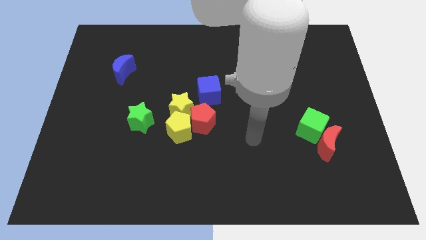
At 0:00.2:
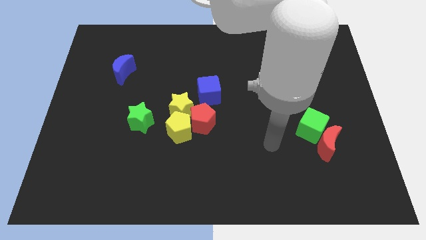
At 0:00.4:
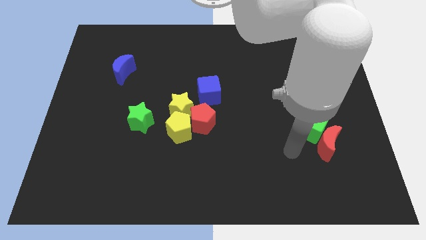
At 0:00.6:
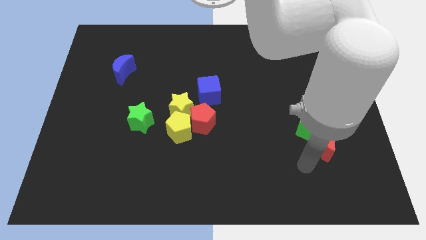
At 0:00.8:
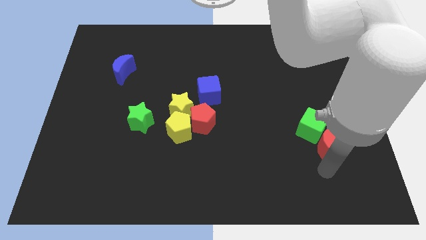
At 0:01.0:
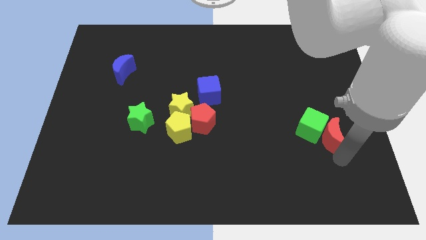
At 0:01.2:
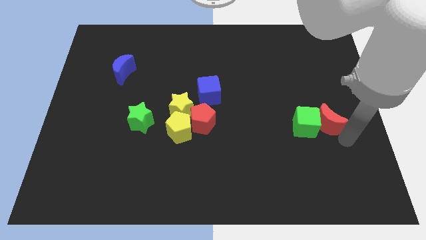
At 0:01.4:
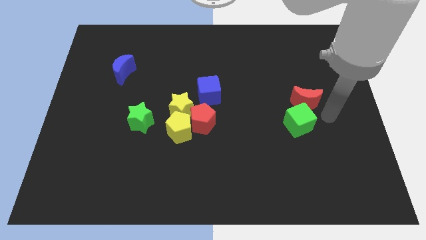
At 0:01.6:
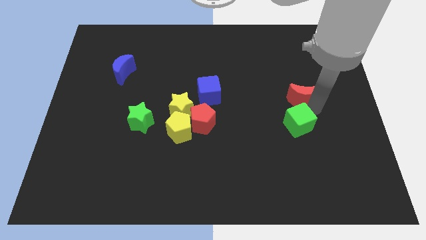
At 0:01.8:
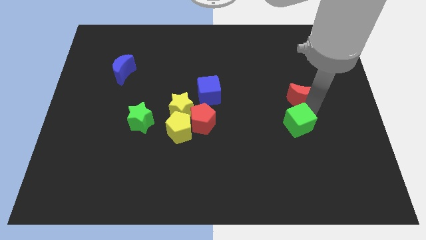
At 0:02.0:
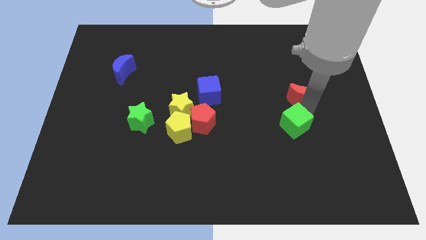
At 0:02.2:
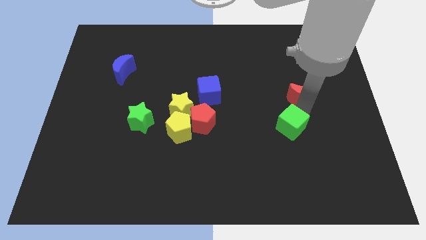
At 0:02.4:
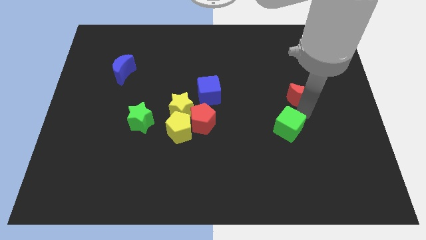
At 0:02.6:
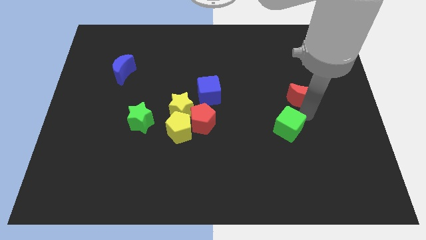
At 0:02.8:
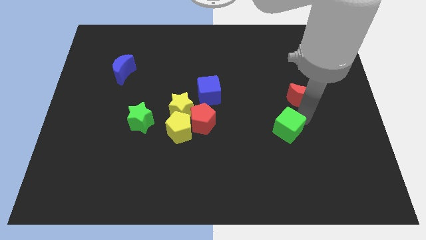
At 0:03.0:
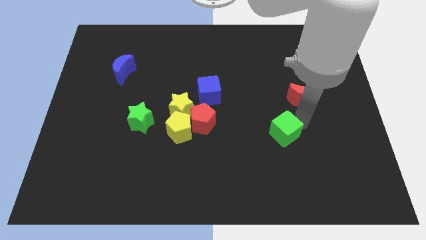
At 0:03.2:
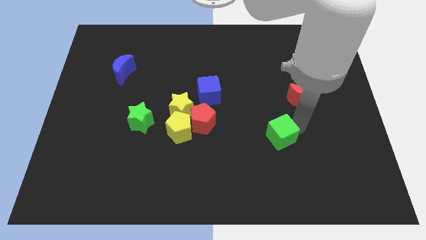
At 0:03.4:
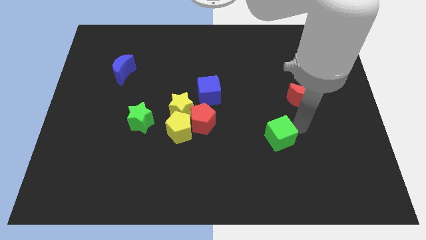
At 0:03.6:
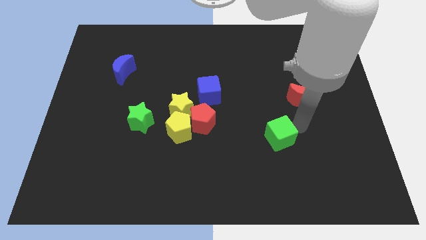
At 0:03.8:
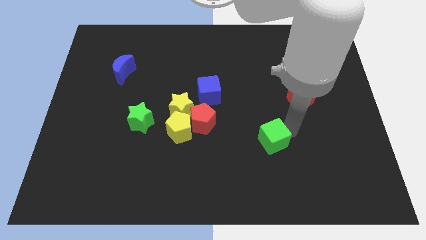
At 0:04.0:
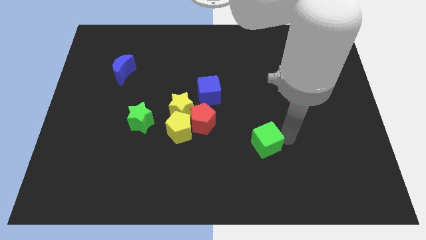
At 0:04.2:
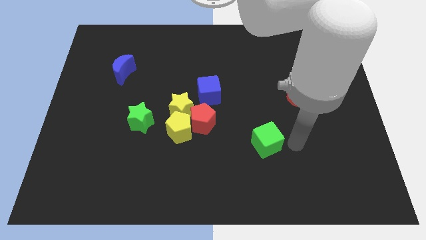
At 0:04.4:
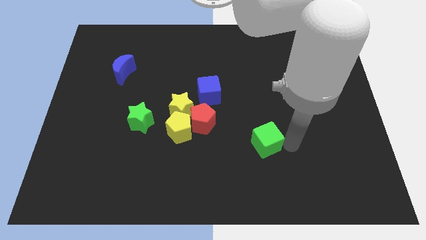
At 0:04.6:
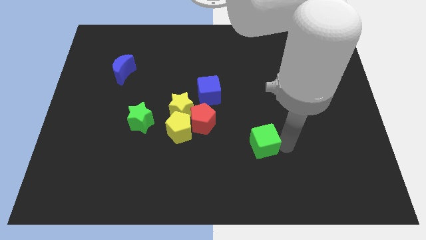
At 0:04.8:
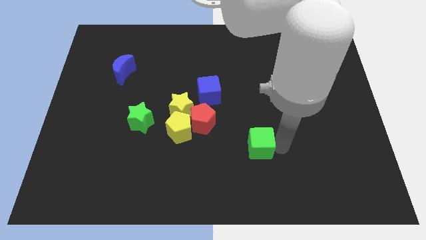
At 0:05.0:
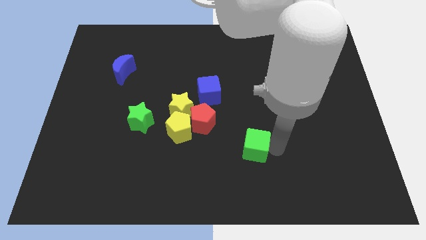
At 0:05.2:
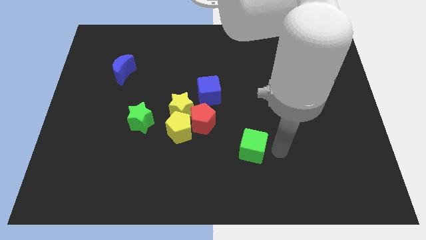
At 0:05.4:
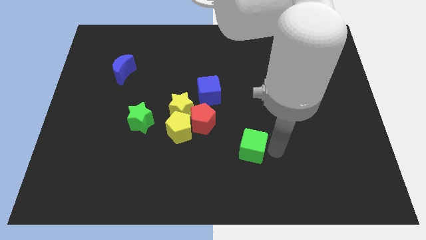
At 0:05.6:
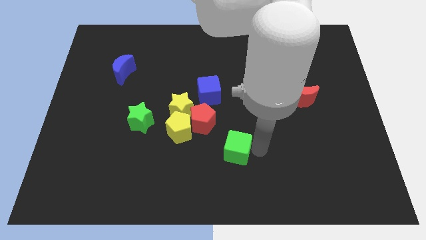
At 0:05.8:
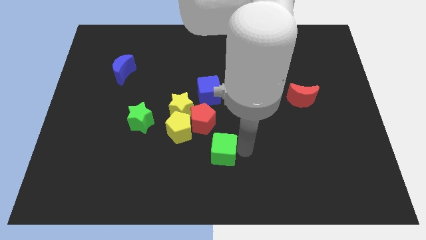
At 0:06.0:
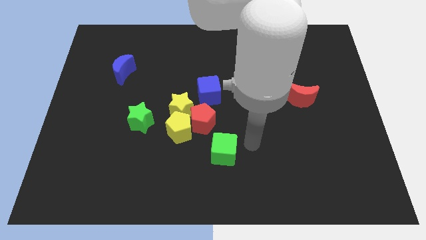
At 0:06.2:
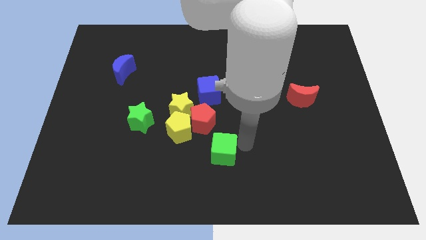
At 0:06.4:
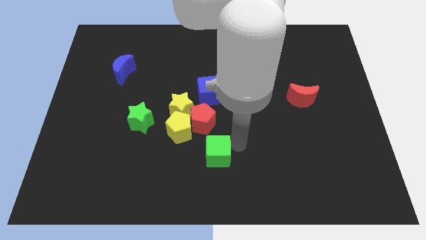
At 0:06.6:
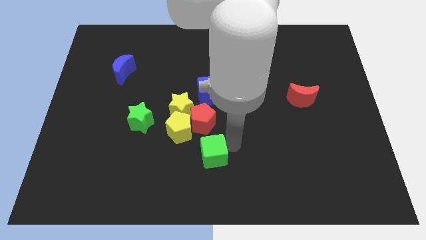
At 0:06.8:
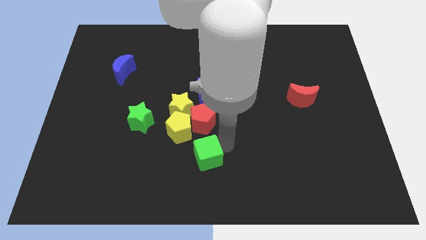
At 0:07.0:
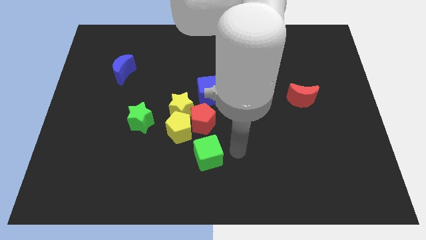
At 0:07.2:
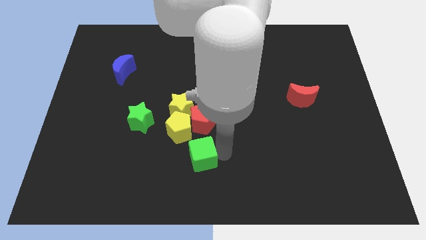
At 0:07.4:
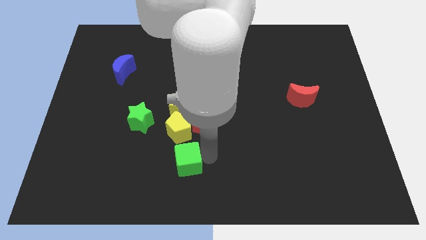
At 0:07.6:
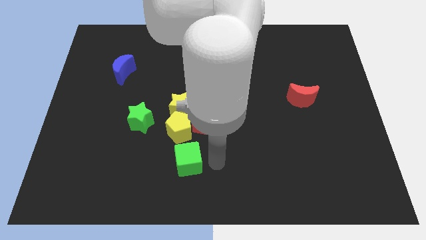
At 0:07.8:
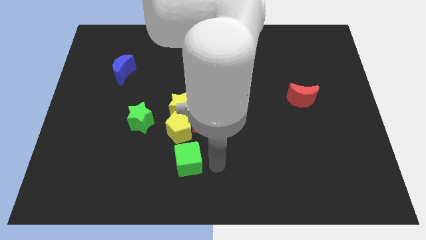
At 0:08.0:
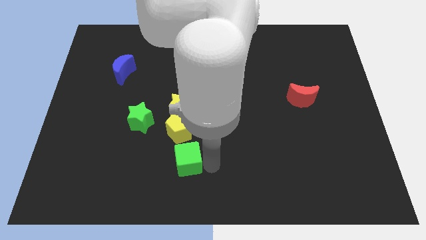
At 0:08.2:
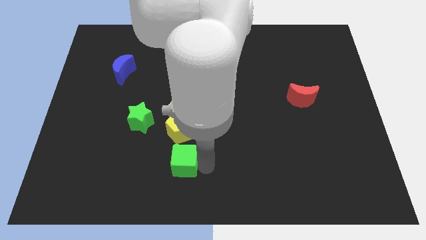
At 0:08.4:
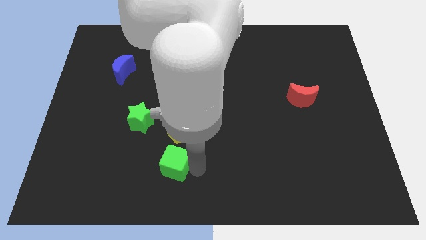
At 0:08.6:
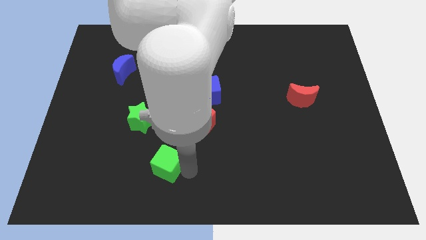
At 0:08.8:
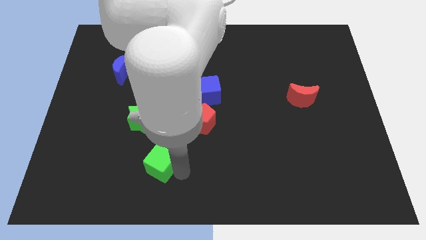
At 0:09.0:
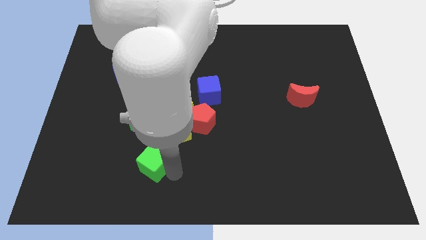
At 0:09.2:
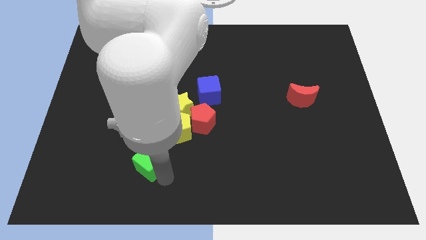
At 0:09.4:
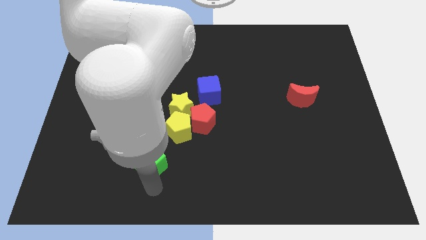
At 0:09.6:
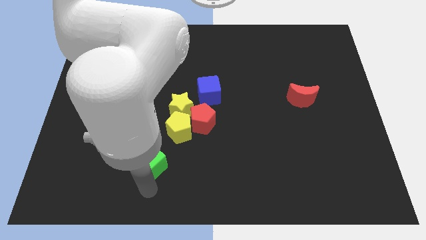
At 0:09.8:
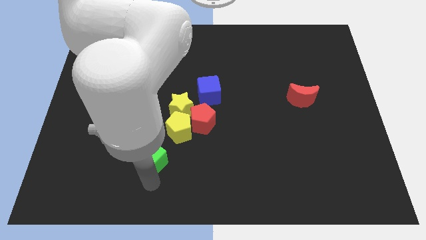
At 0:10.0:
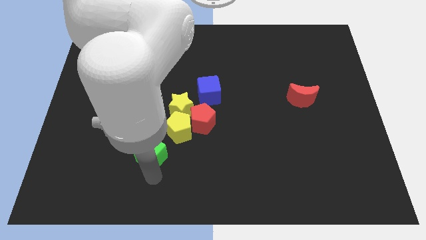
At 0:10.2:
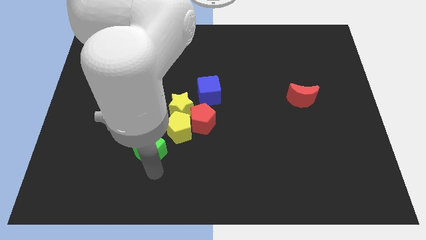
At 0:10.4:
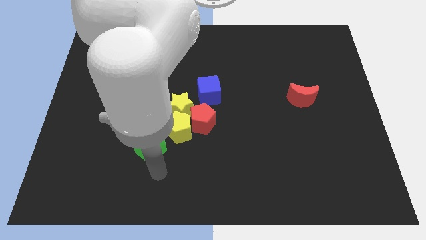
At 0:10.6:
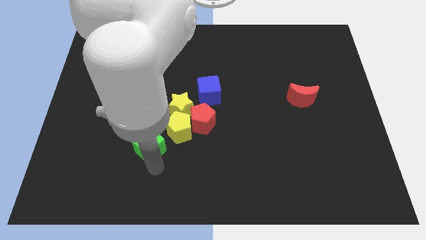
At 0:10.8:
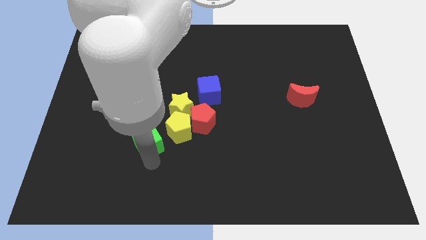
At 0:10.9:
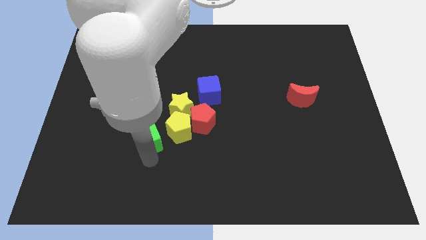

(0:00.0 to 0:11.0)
slide the green cube next to the green star

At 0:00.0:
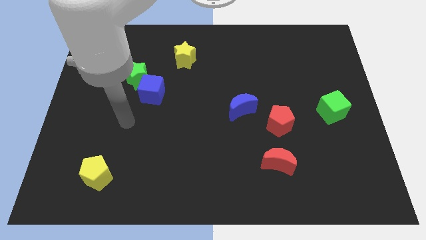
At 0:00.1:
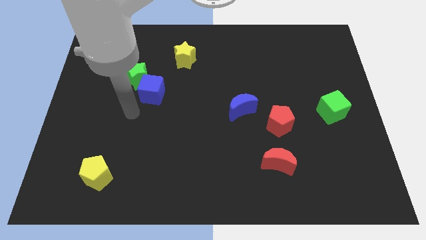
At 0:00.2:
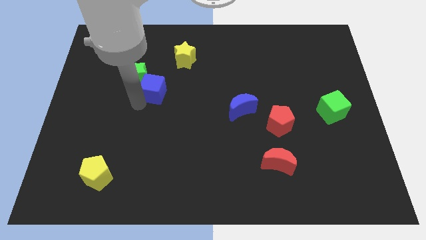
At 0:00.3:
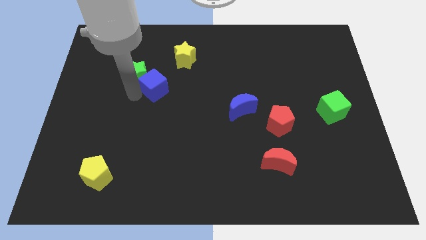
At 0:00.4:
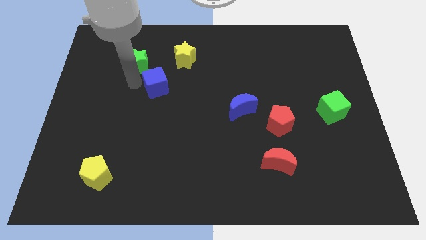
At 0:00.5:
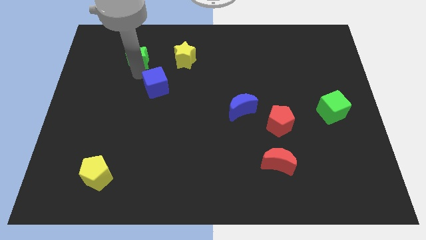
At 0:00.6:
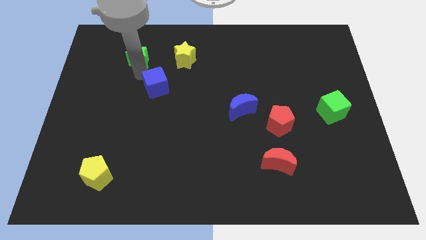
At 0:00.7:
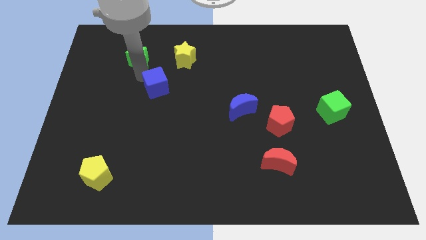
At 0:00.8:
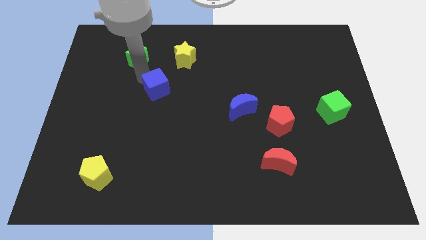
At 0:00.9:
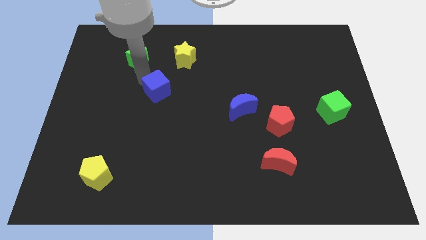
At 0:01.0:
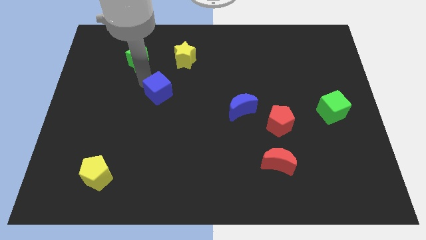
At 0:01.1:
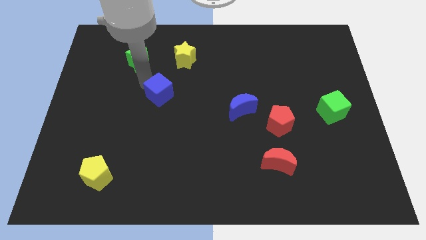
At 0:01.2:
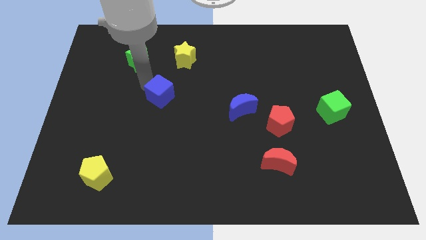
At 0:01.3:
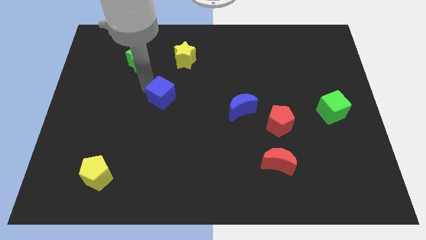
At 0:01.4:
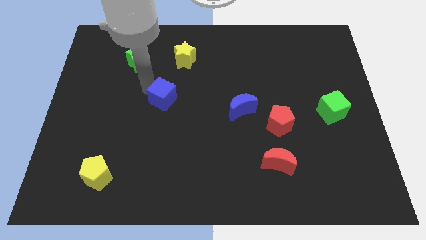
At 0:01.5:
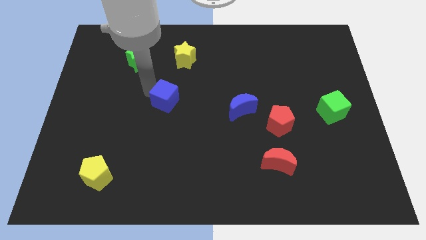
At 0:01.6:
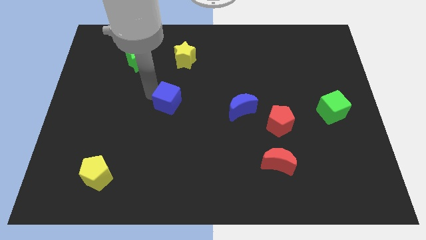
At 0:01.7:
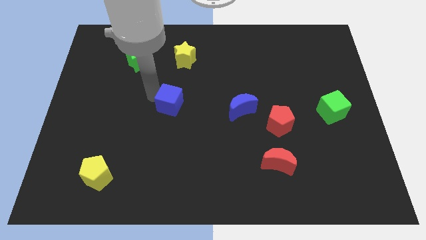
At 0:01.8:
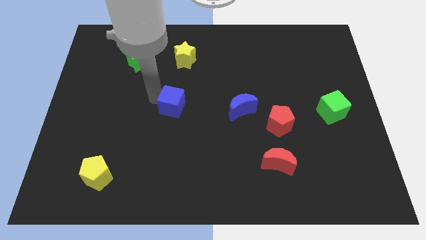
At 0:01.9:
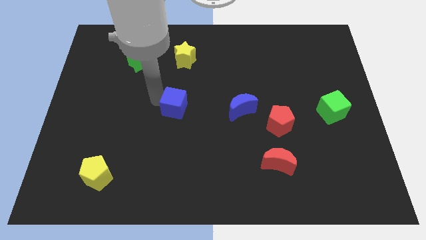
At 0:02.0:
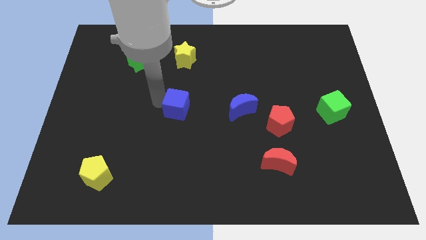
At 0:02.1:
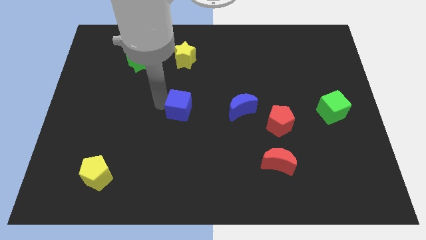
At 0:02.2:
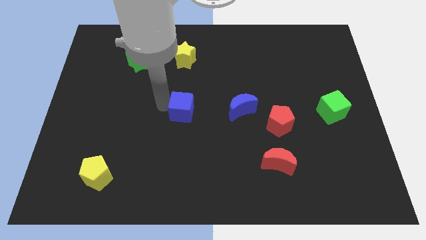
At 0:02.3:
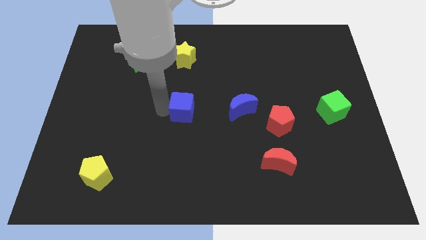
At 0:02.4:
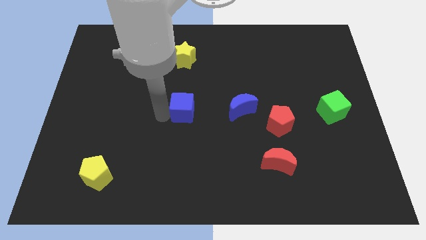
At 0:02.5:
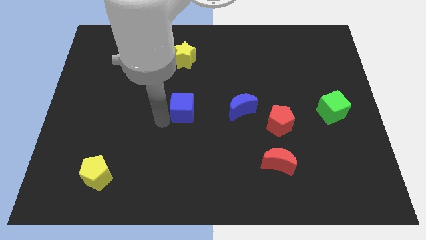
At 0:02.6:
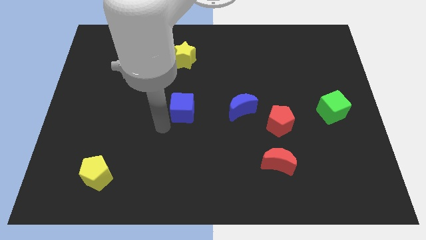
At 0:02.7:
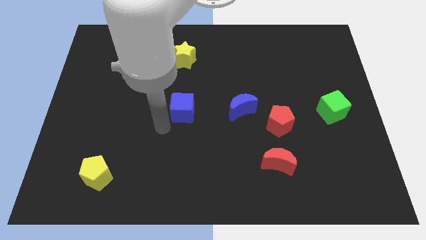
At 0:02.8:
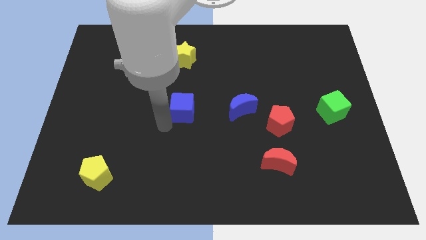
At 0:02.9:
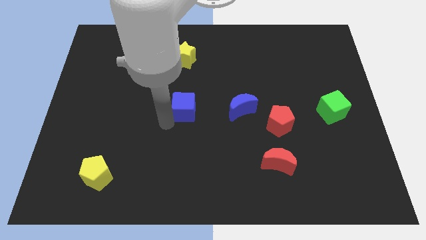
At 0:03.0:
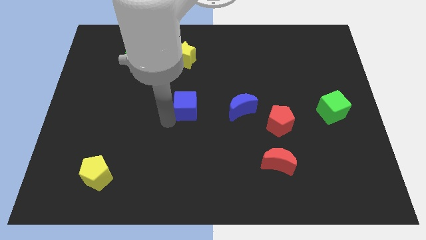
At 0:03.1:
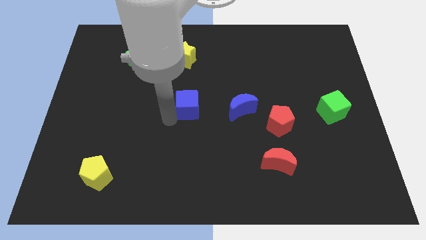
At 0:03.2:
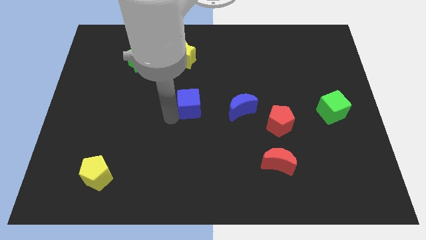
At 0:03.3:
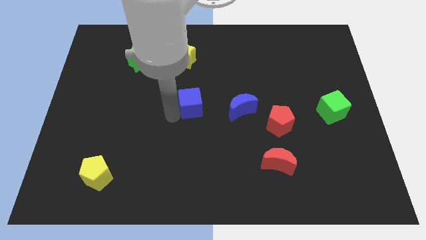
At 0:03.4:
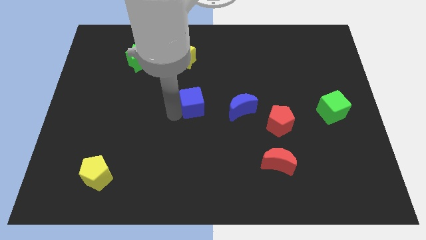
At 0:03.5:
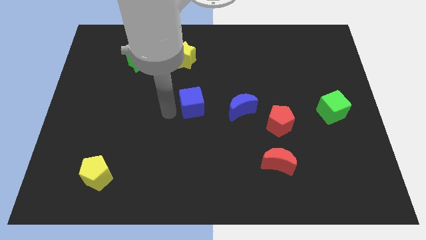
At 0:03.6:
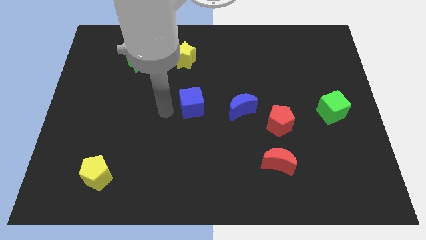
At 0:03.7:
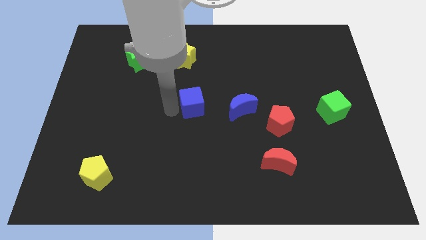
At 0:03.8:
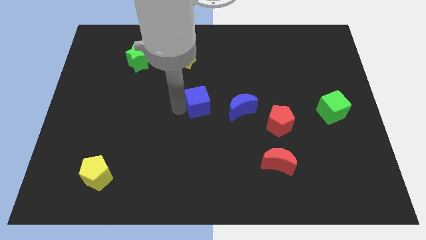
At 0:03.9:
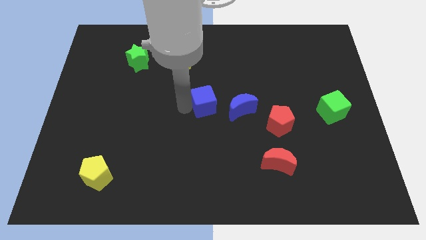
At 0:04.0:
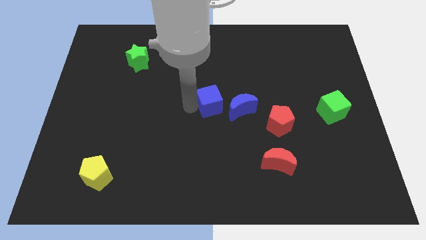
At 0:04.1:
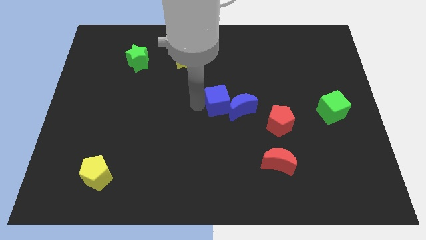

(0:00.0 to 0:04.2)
move the blue cube towards the blue moon
